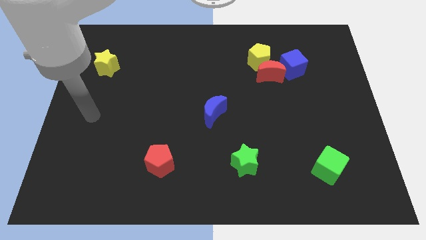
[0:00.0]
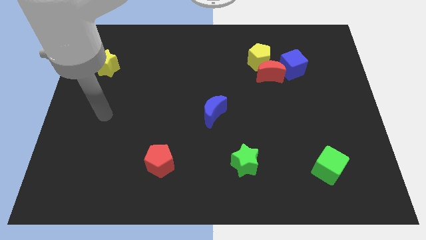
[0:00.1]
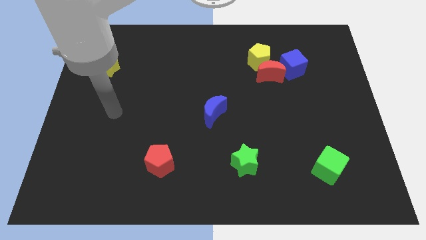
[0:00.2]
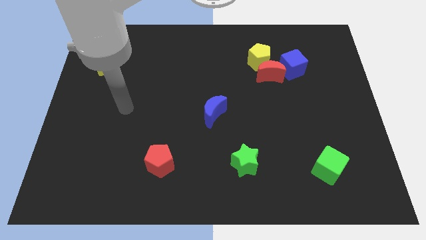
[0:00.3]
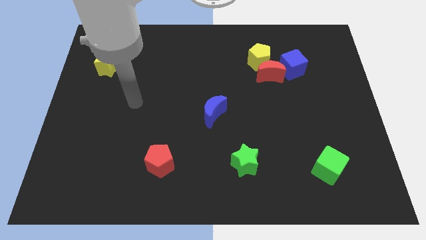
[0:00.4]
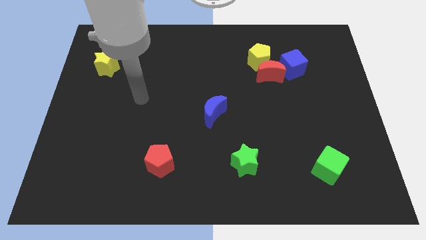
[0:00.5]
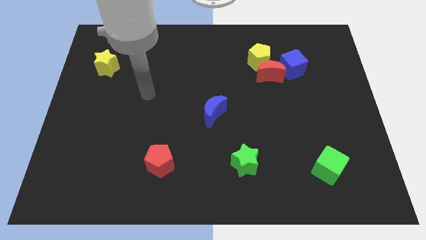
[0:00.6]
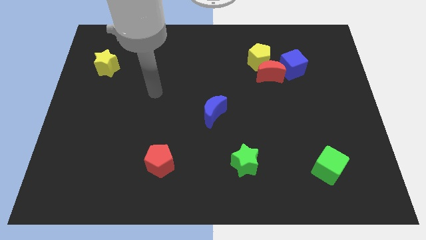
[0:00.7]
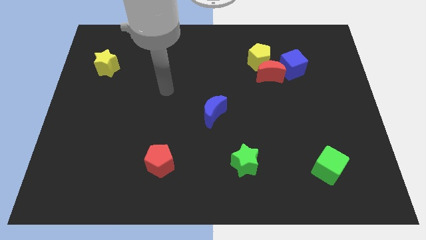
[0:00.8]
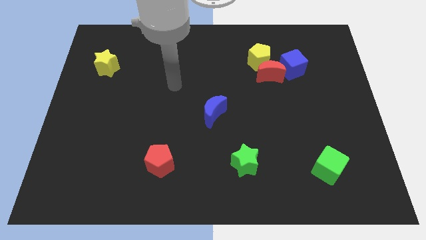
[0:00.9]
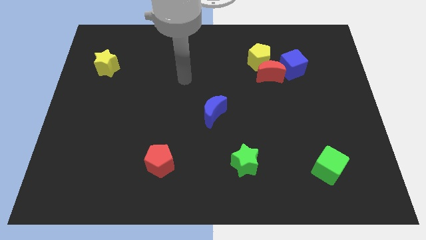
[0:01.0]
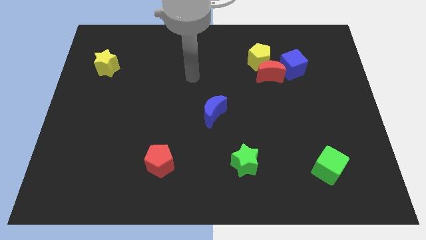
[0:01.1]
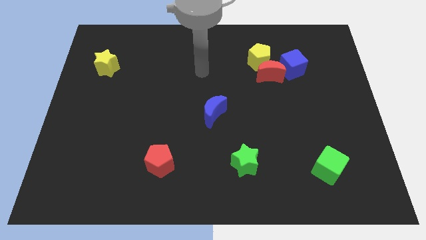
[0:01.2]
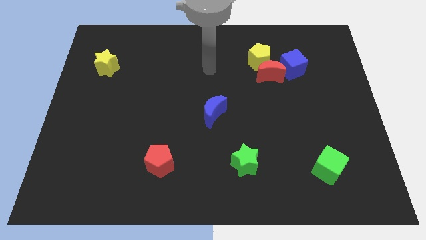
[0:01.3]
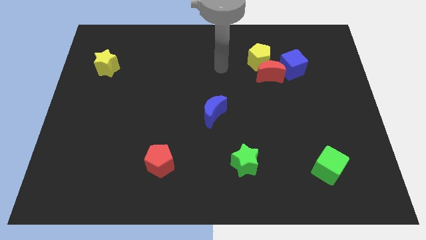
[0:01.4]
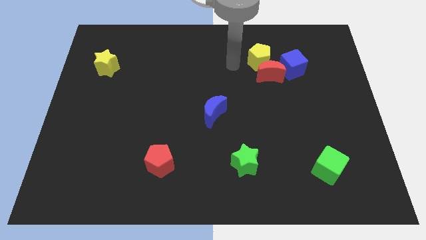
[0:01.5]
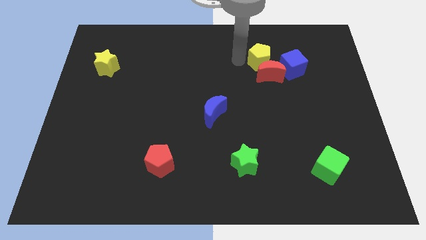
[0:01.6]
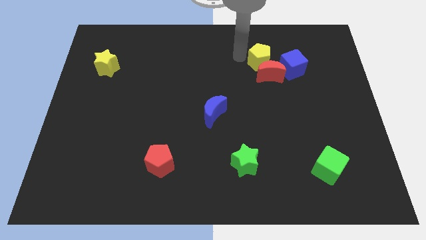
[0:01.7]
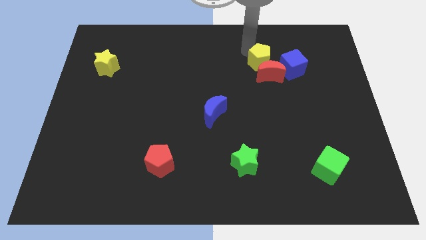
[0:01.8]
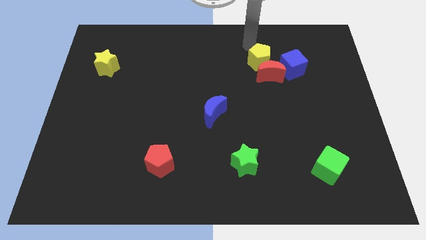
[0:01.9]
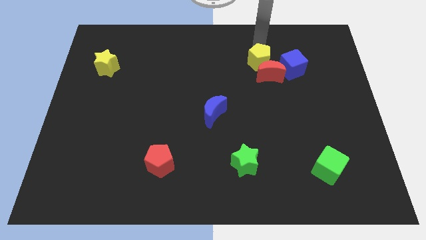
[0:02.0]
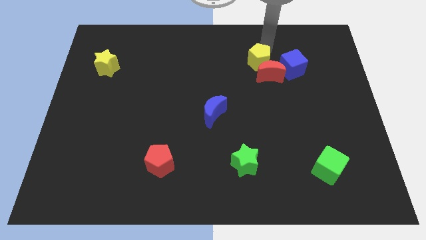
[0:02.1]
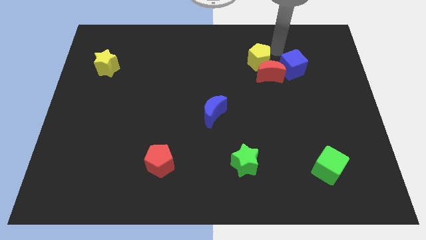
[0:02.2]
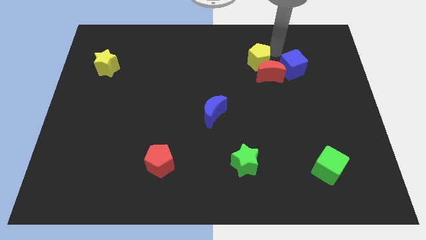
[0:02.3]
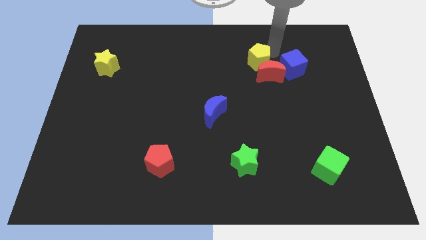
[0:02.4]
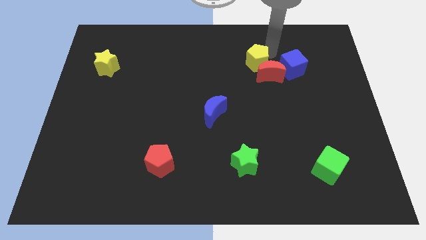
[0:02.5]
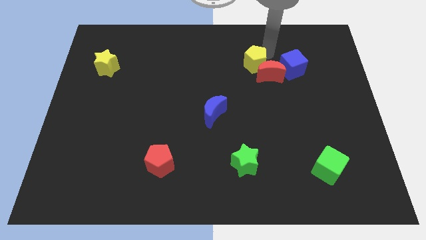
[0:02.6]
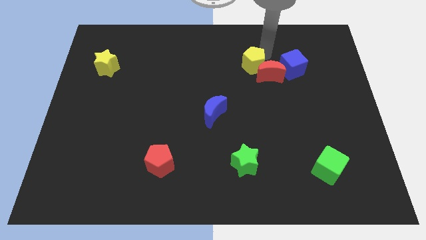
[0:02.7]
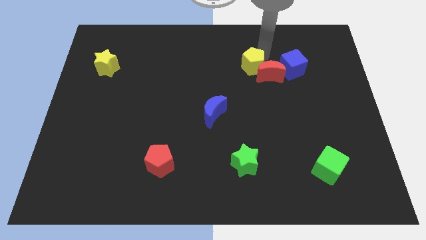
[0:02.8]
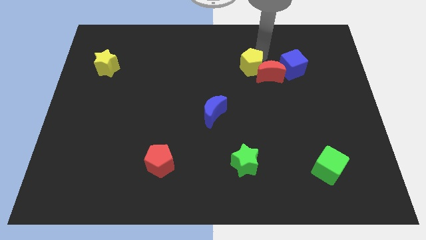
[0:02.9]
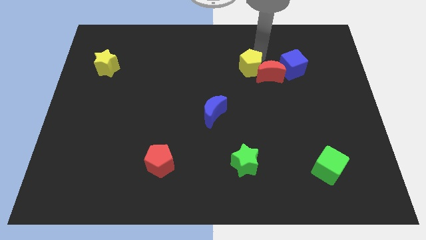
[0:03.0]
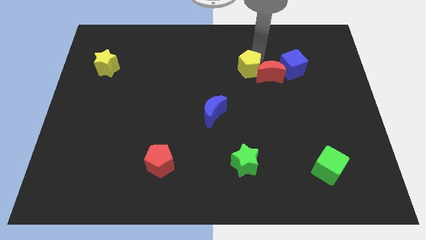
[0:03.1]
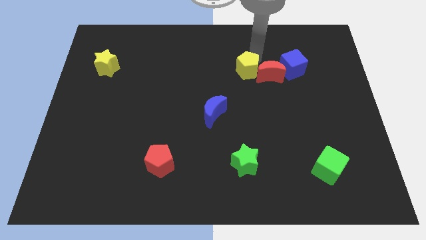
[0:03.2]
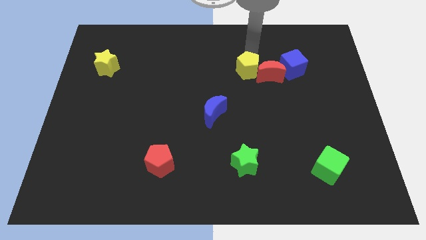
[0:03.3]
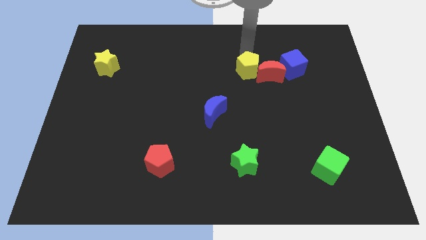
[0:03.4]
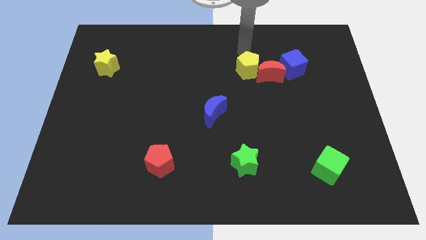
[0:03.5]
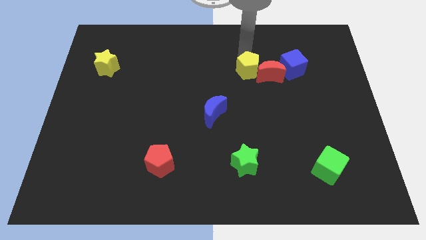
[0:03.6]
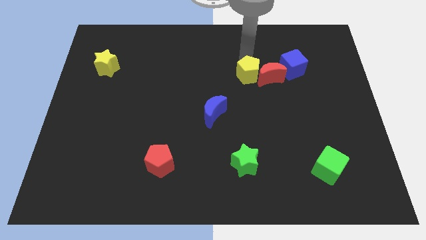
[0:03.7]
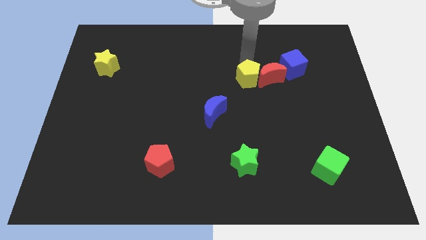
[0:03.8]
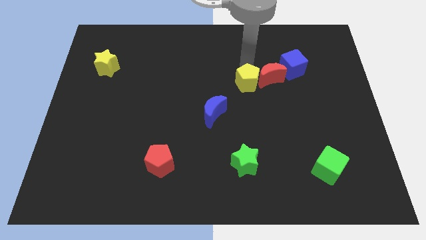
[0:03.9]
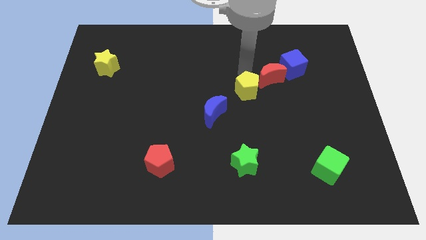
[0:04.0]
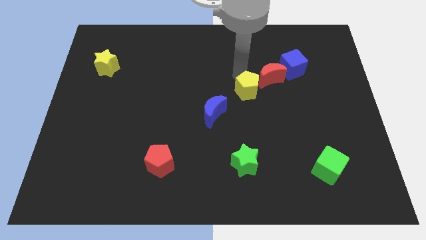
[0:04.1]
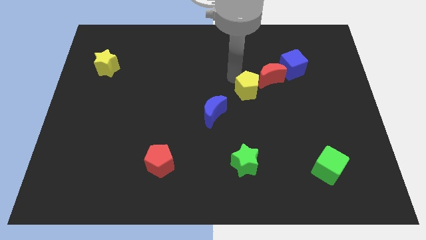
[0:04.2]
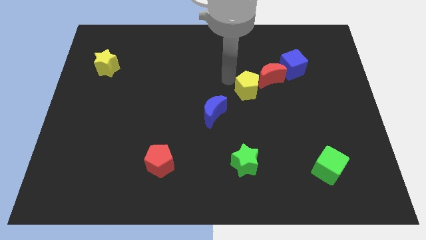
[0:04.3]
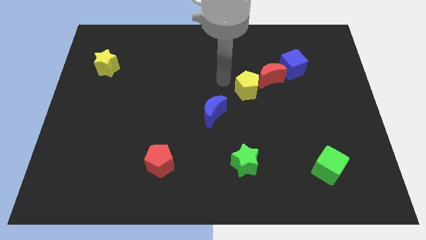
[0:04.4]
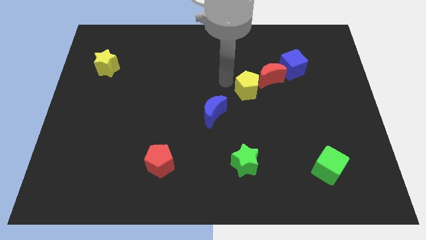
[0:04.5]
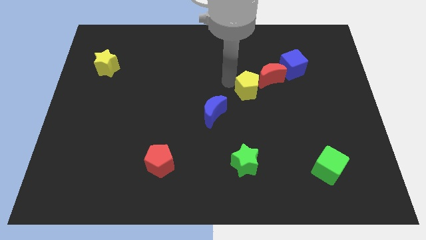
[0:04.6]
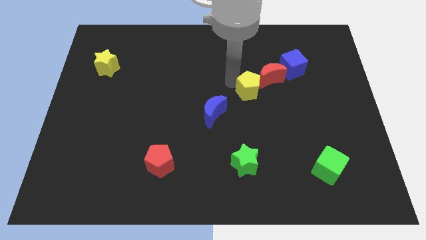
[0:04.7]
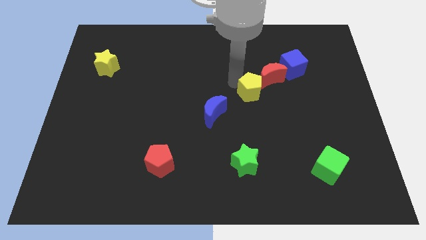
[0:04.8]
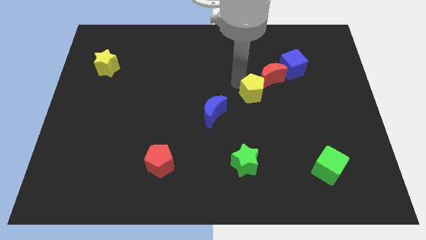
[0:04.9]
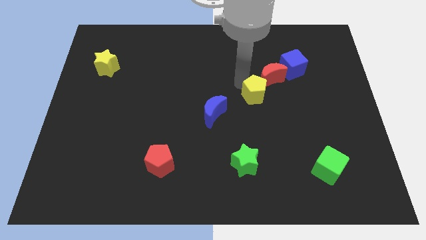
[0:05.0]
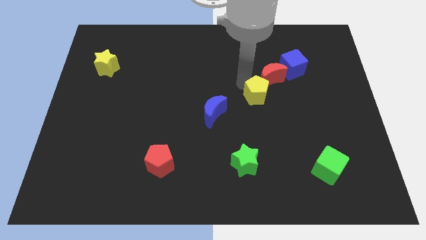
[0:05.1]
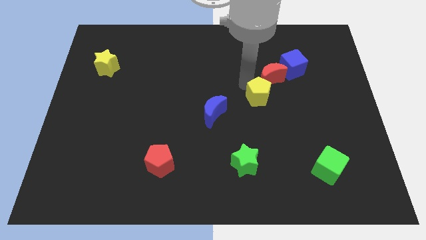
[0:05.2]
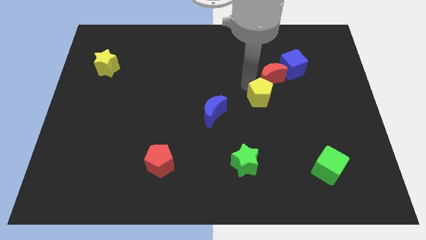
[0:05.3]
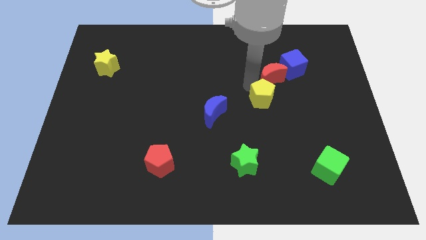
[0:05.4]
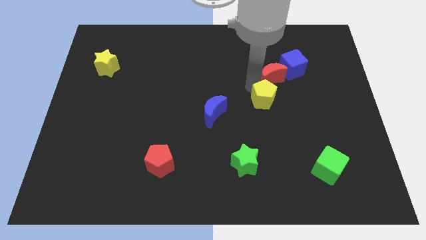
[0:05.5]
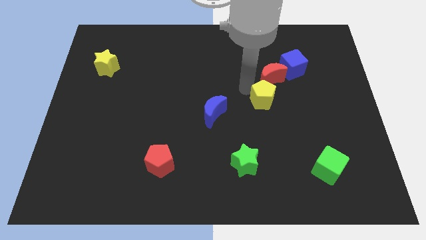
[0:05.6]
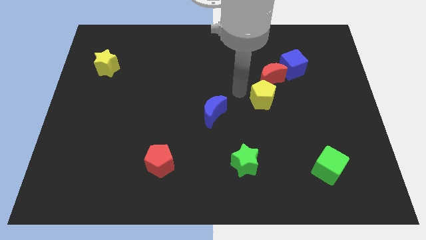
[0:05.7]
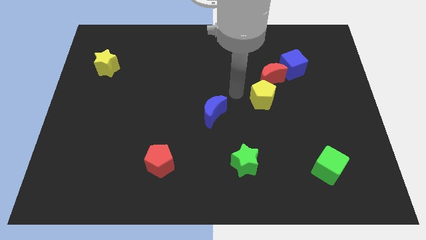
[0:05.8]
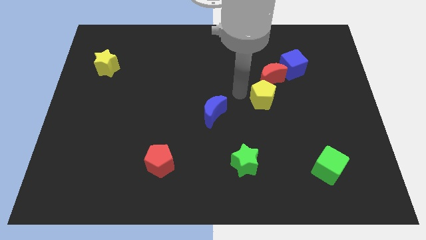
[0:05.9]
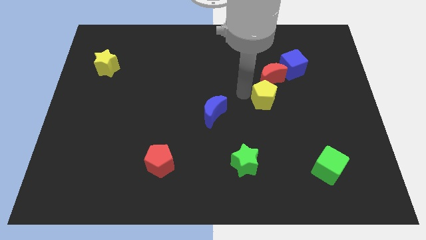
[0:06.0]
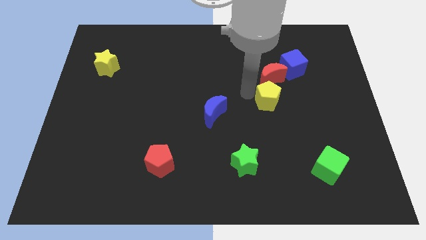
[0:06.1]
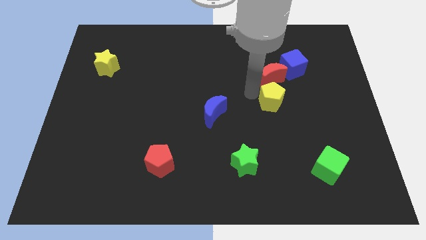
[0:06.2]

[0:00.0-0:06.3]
slide the yellow pentagon diagonally downwards and right a bit

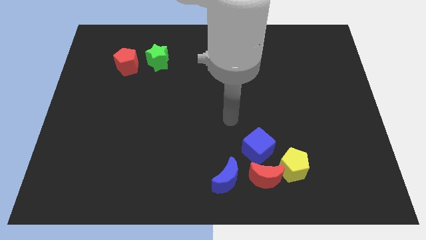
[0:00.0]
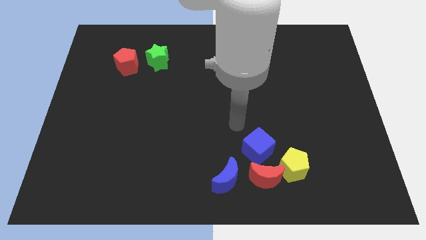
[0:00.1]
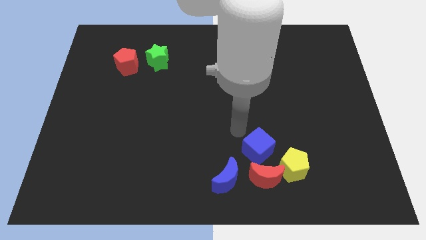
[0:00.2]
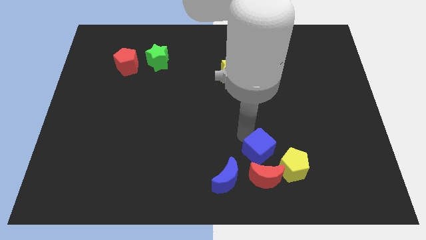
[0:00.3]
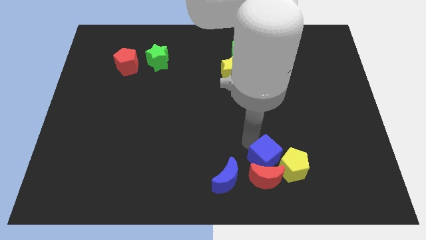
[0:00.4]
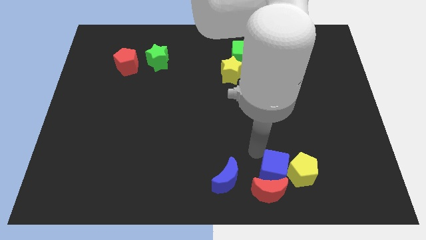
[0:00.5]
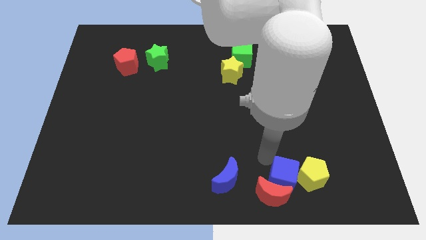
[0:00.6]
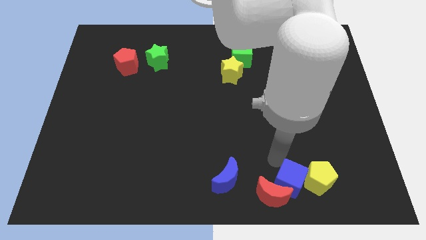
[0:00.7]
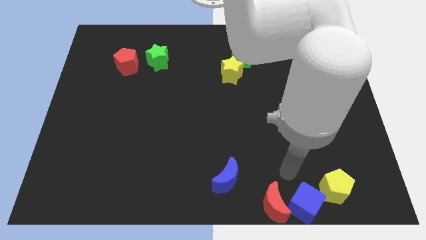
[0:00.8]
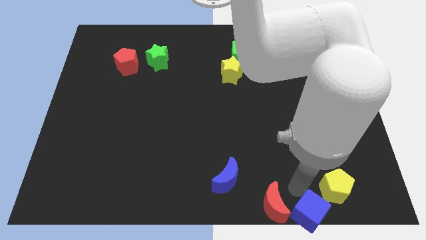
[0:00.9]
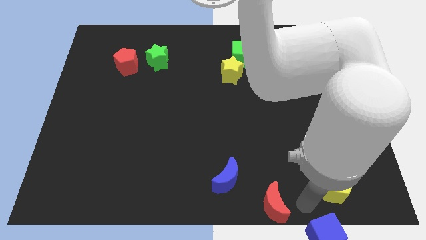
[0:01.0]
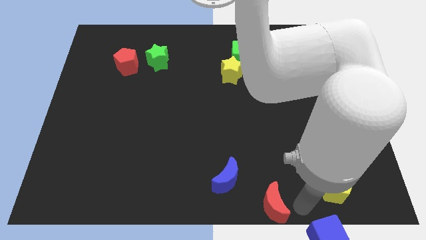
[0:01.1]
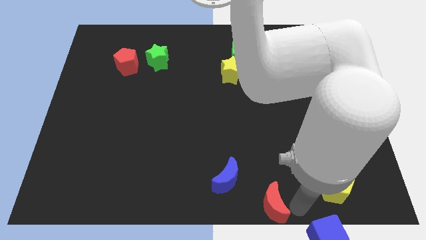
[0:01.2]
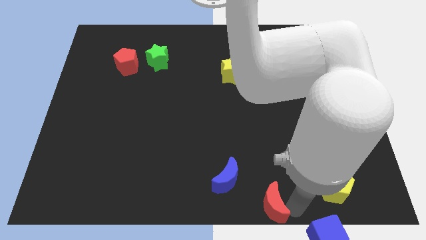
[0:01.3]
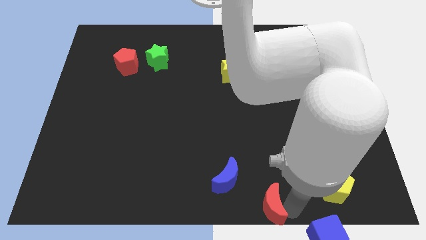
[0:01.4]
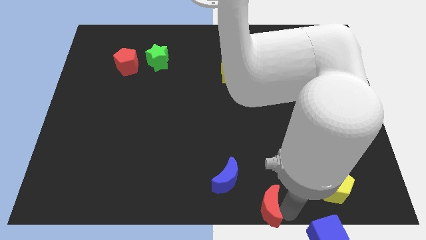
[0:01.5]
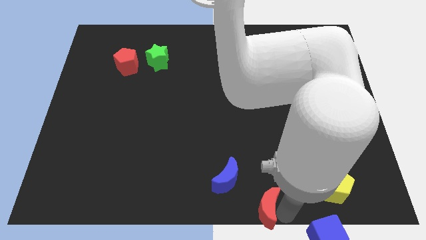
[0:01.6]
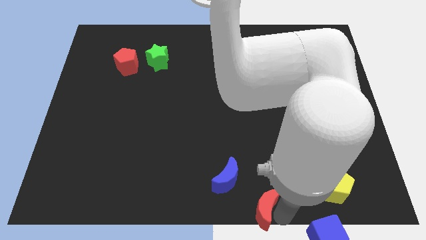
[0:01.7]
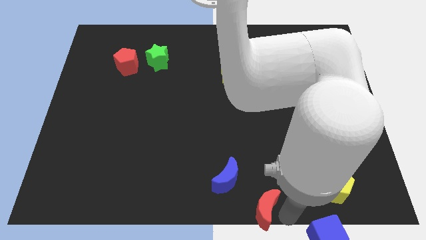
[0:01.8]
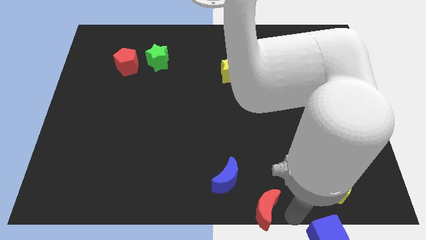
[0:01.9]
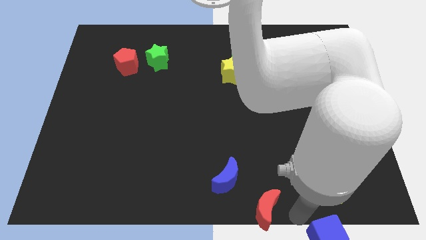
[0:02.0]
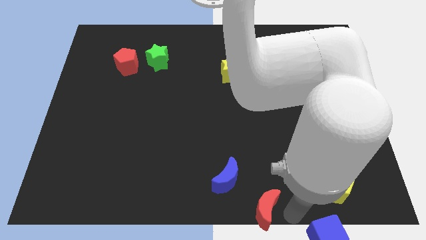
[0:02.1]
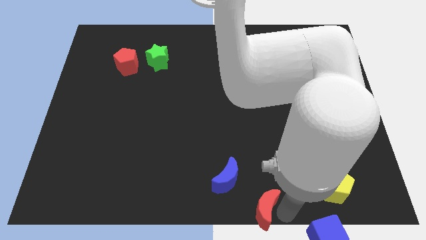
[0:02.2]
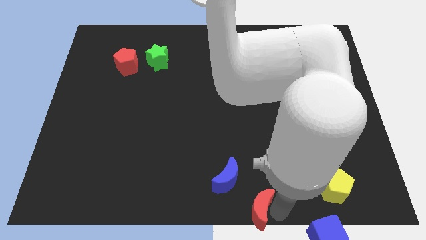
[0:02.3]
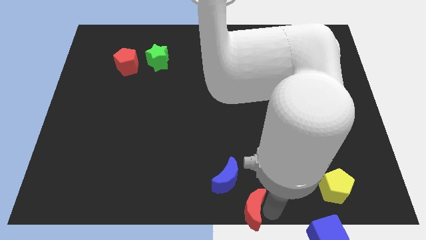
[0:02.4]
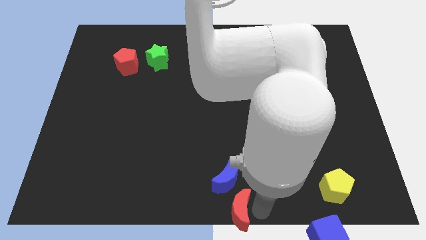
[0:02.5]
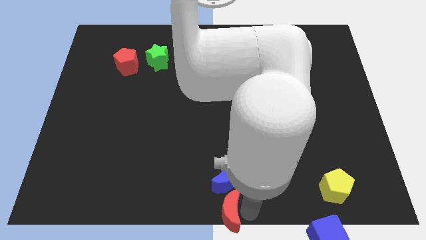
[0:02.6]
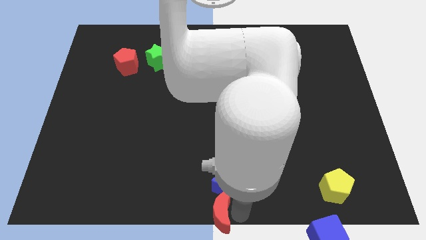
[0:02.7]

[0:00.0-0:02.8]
push the red moon to the left slightly
